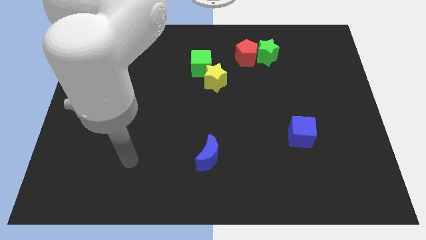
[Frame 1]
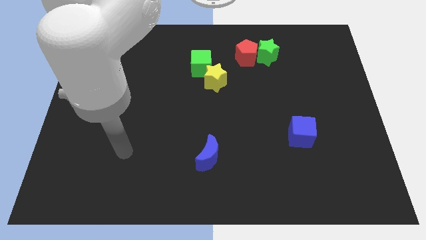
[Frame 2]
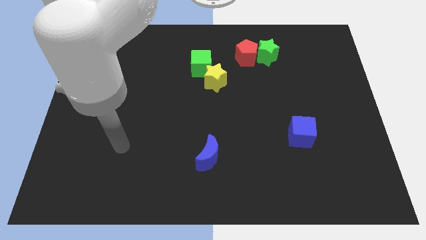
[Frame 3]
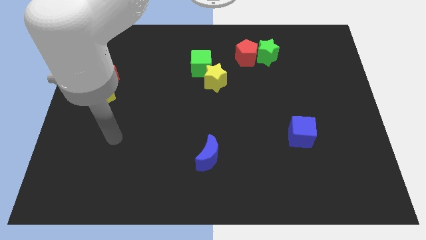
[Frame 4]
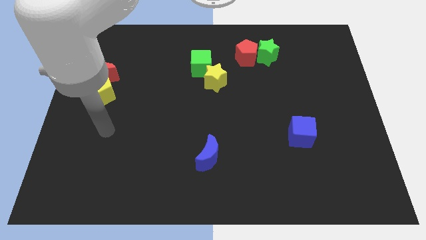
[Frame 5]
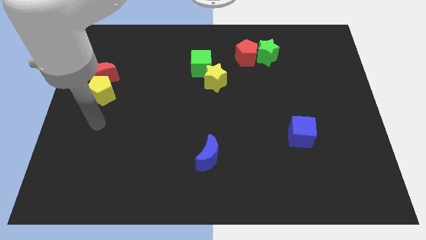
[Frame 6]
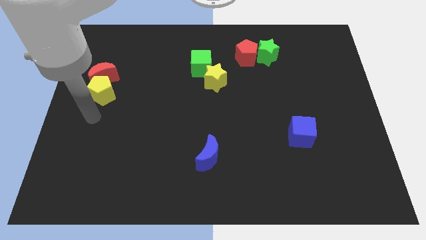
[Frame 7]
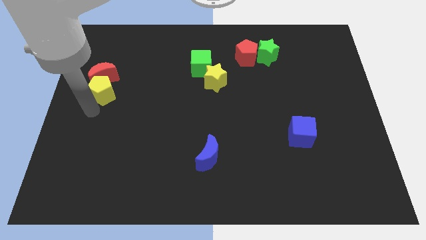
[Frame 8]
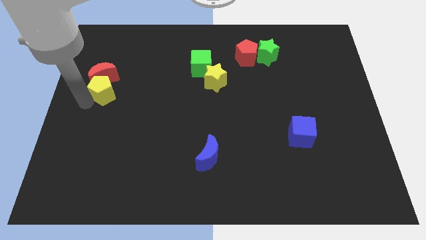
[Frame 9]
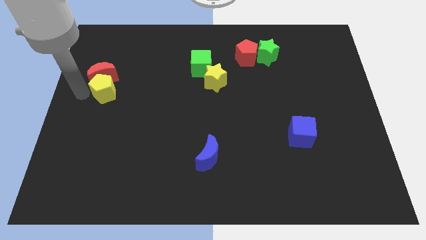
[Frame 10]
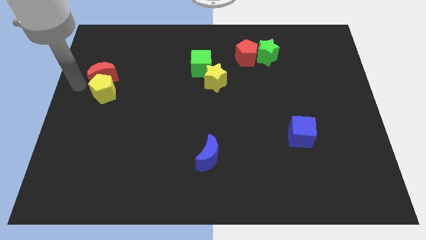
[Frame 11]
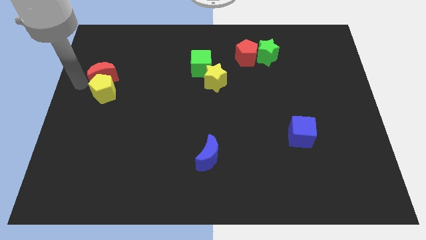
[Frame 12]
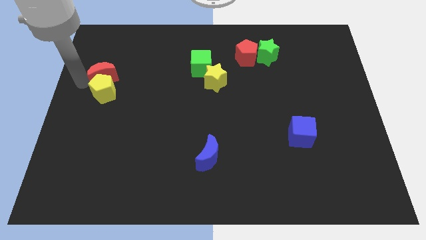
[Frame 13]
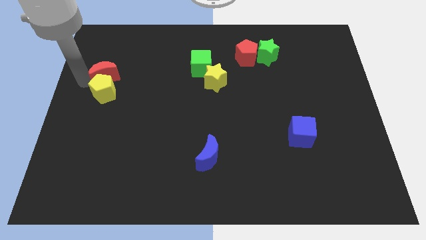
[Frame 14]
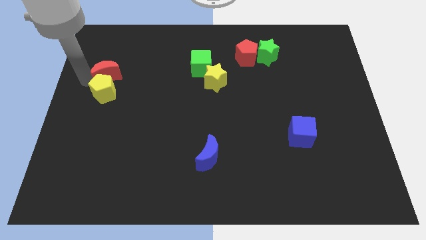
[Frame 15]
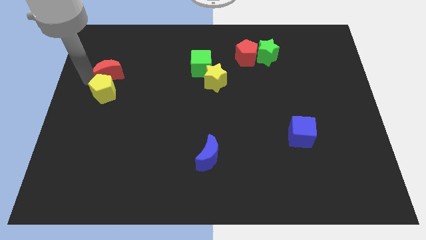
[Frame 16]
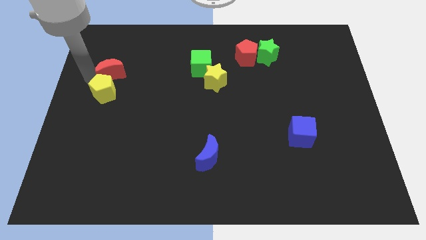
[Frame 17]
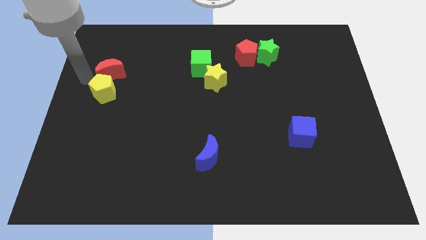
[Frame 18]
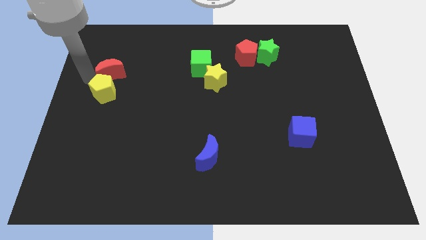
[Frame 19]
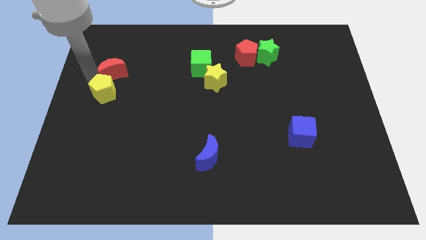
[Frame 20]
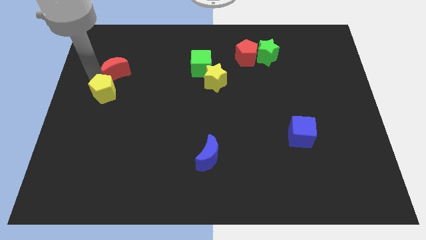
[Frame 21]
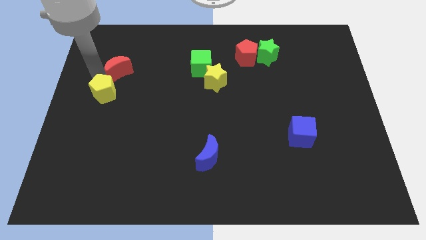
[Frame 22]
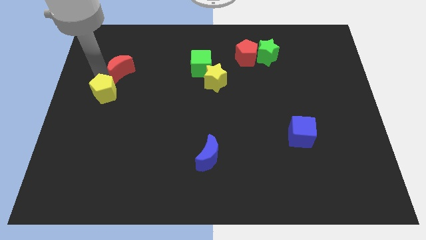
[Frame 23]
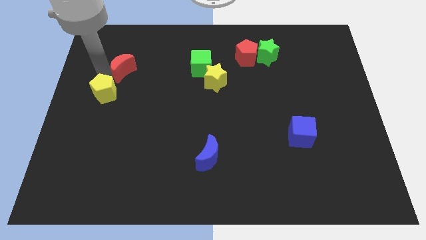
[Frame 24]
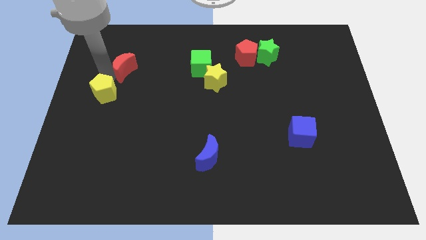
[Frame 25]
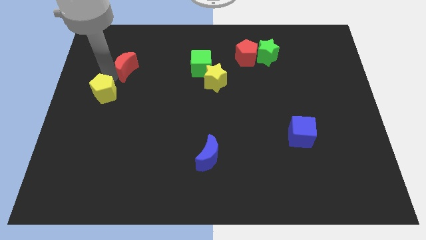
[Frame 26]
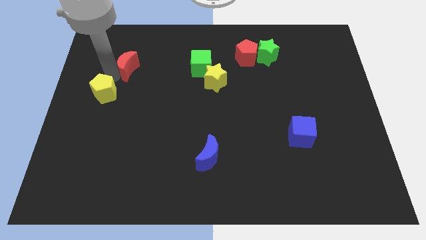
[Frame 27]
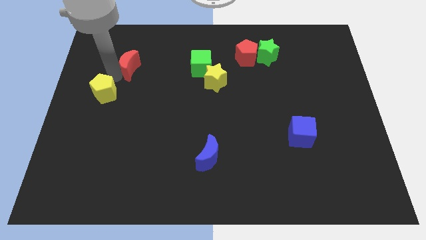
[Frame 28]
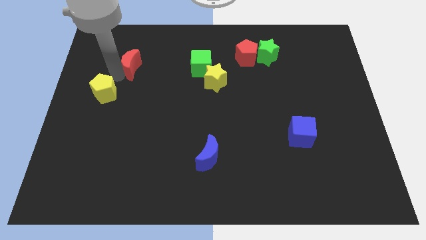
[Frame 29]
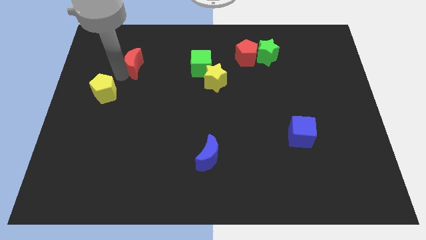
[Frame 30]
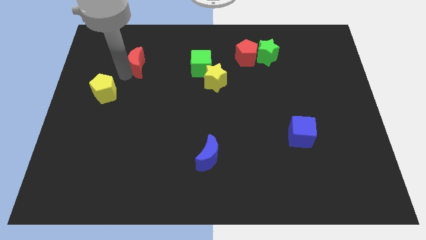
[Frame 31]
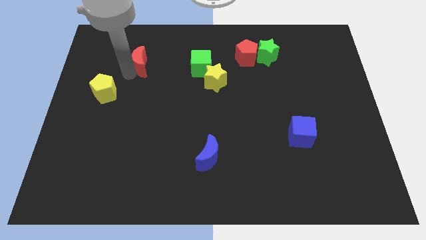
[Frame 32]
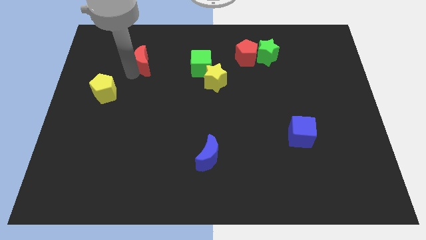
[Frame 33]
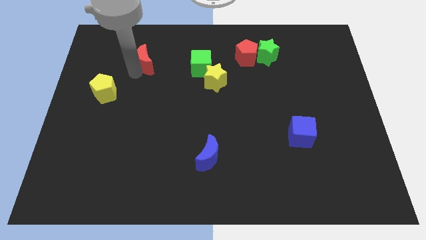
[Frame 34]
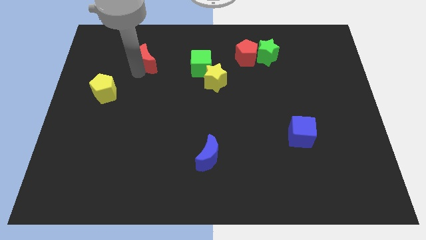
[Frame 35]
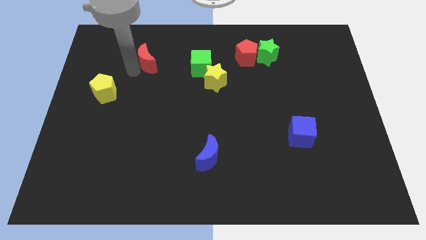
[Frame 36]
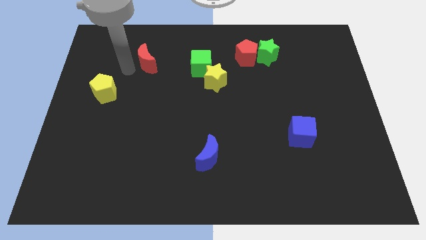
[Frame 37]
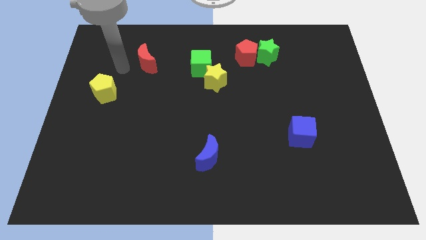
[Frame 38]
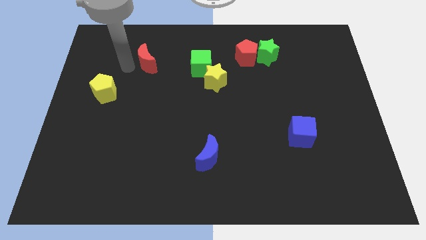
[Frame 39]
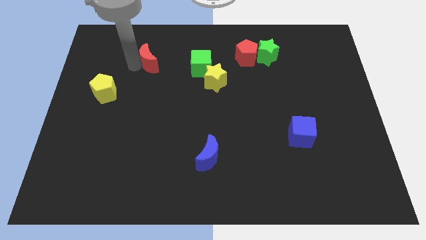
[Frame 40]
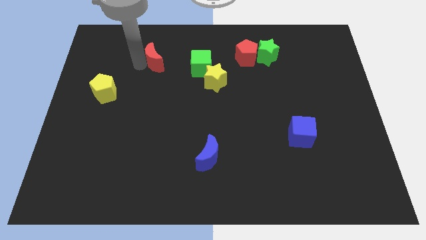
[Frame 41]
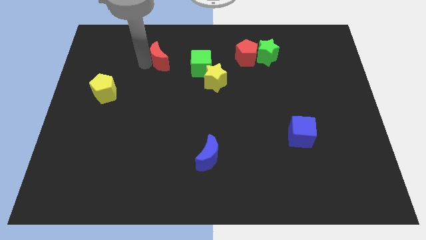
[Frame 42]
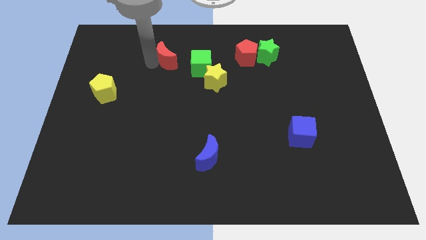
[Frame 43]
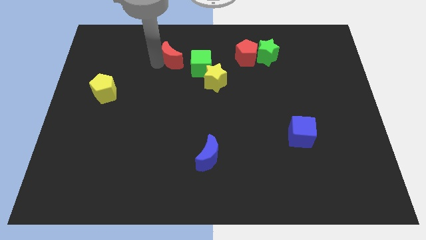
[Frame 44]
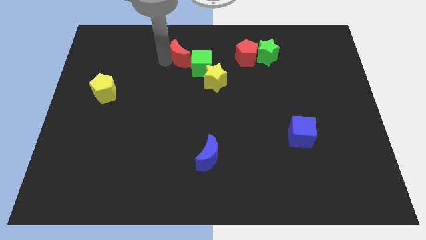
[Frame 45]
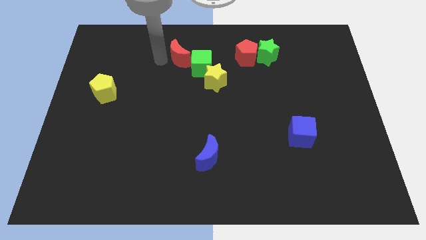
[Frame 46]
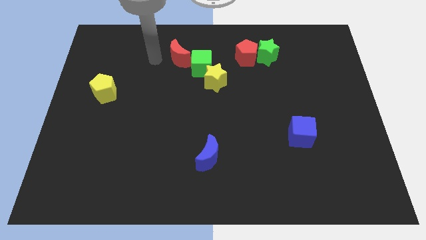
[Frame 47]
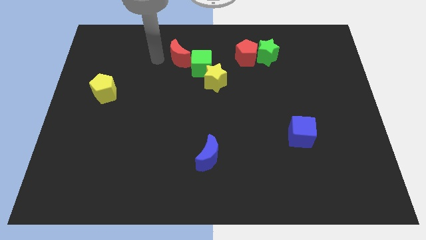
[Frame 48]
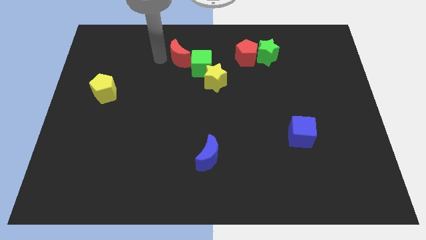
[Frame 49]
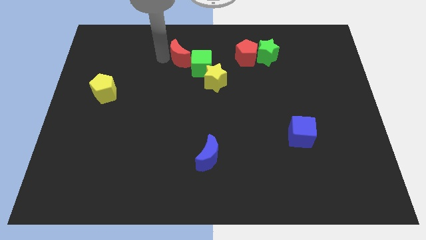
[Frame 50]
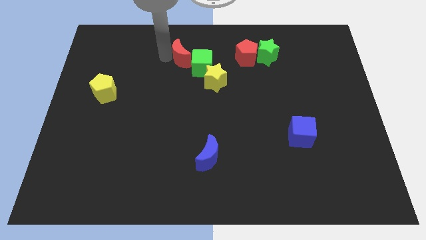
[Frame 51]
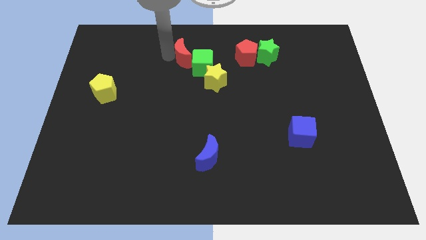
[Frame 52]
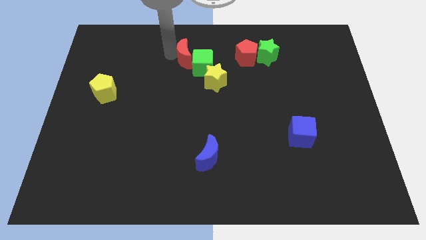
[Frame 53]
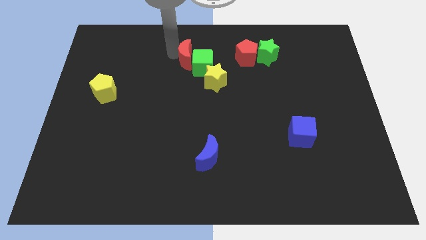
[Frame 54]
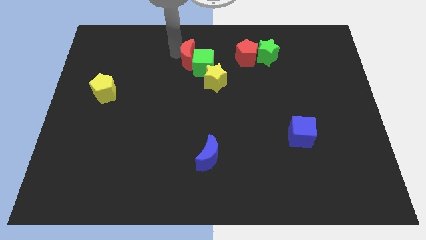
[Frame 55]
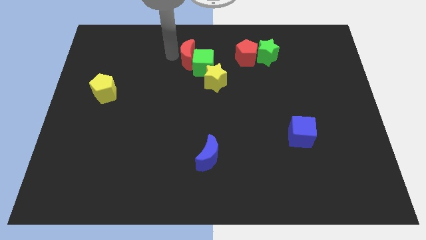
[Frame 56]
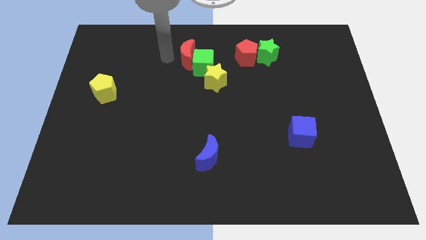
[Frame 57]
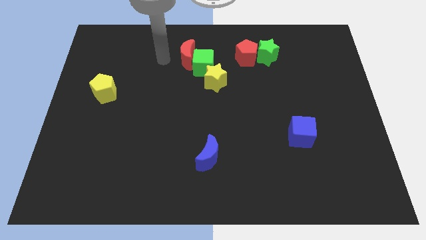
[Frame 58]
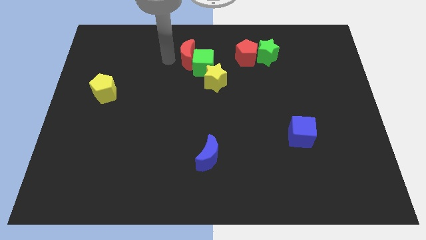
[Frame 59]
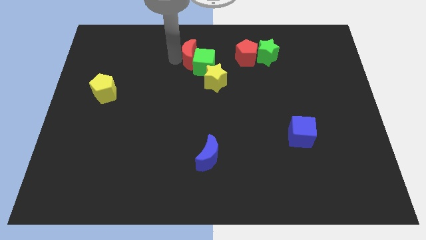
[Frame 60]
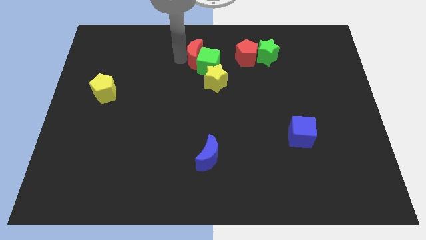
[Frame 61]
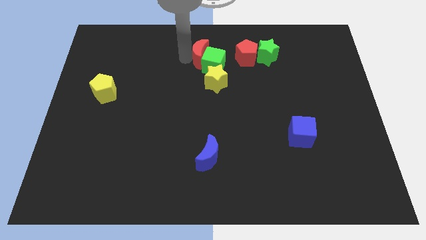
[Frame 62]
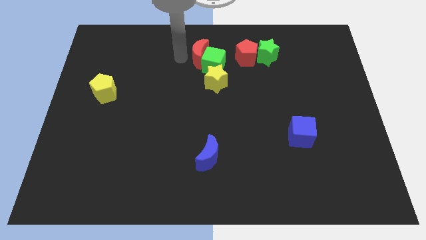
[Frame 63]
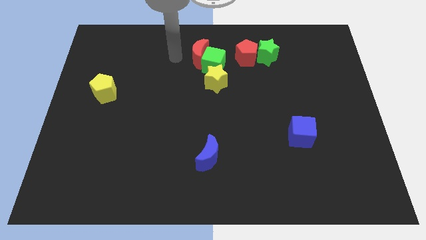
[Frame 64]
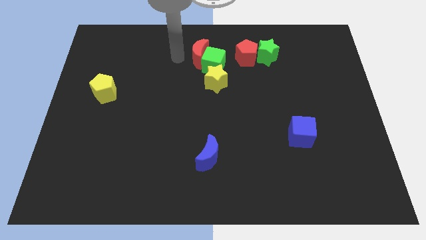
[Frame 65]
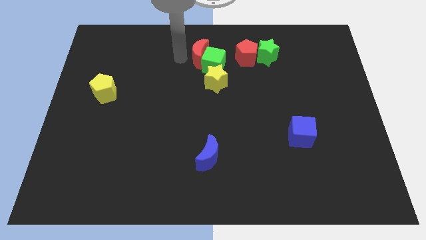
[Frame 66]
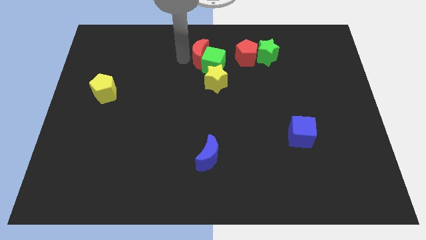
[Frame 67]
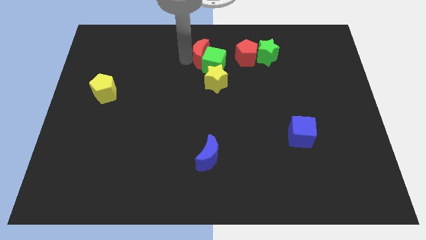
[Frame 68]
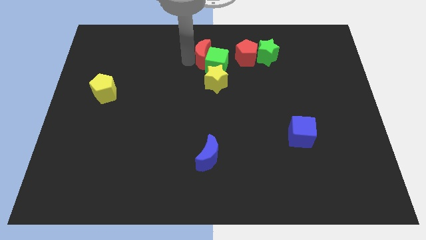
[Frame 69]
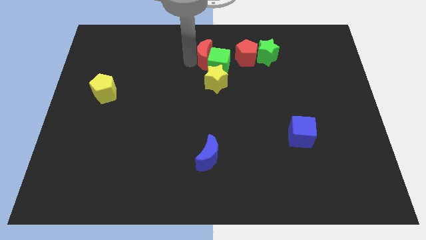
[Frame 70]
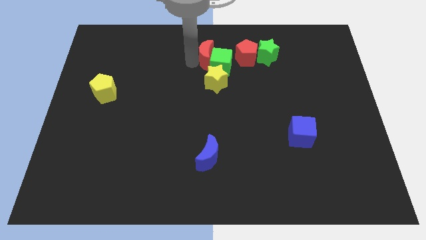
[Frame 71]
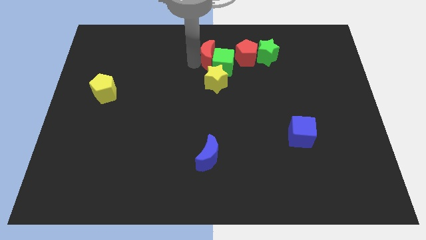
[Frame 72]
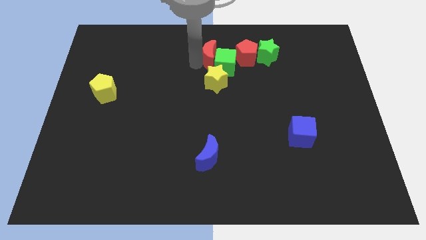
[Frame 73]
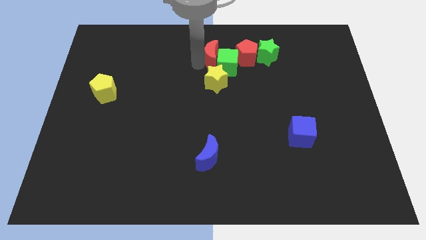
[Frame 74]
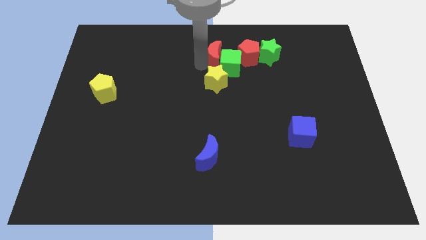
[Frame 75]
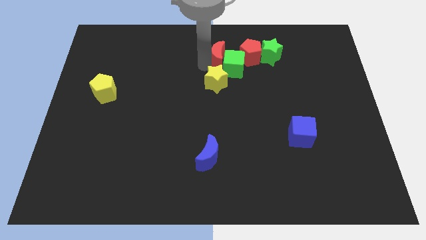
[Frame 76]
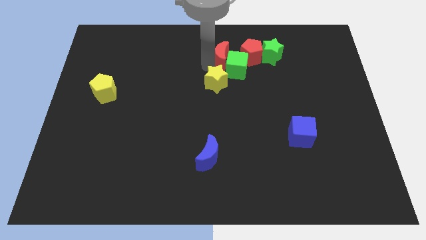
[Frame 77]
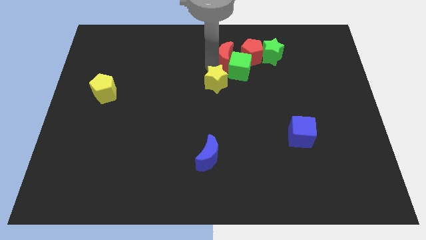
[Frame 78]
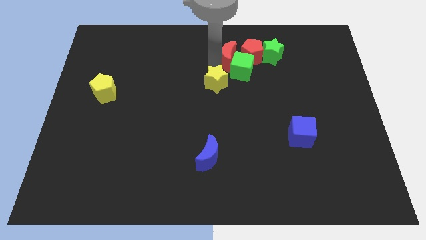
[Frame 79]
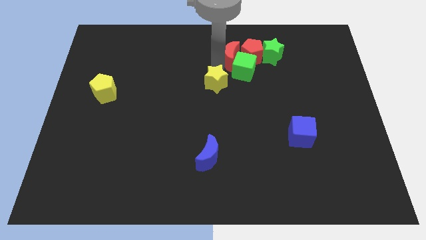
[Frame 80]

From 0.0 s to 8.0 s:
push the red moon towards the red pentagon
